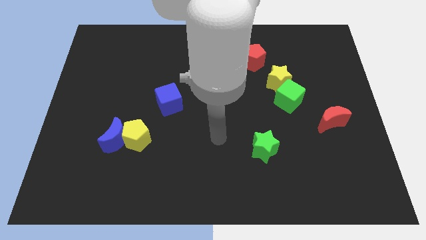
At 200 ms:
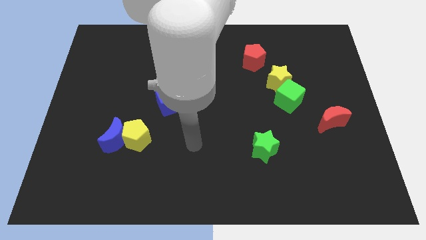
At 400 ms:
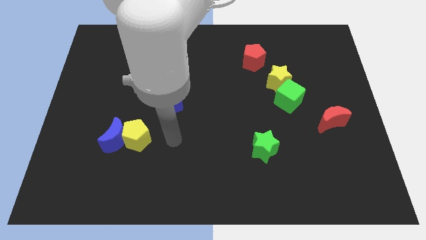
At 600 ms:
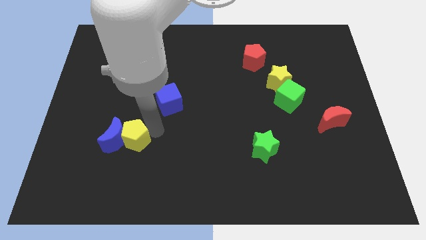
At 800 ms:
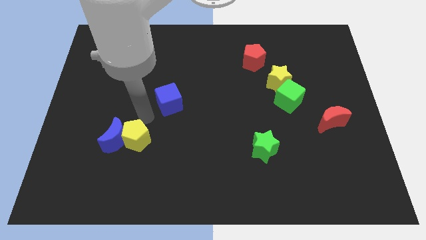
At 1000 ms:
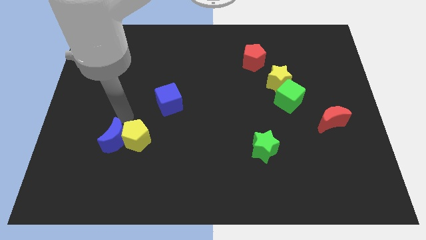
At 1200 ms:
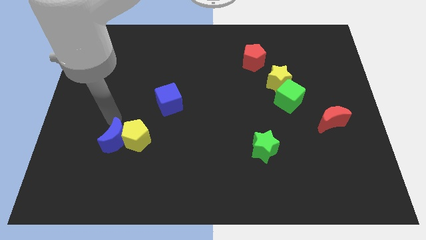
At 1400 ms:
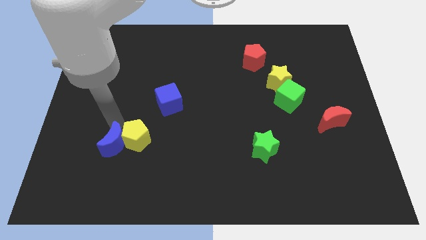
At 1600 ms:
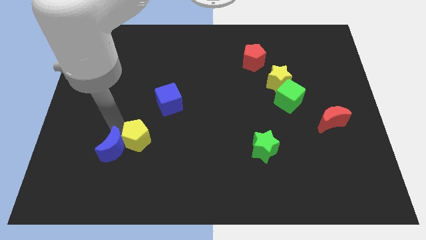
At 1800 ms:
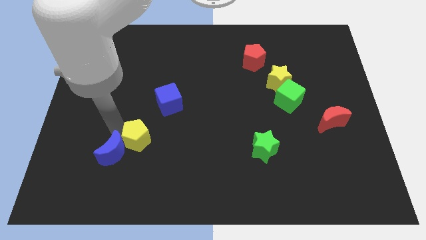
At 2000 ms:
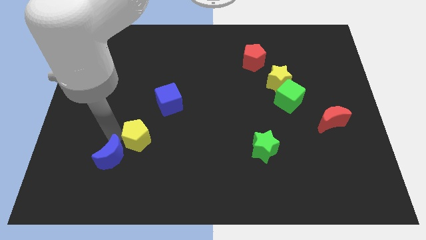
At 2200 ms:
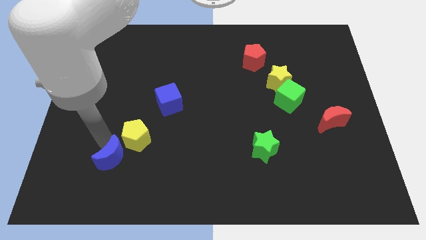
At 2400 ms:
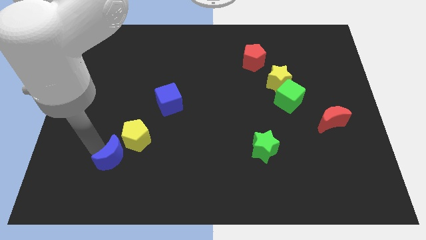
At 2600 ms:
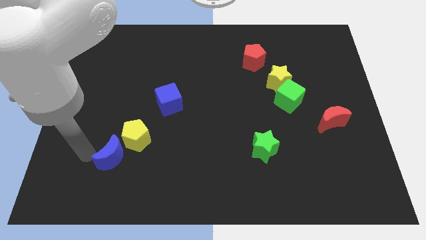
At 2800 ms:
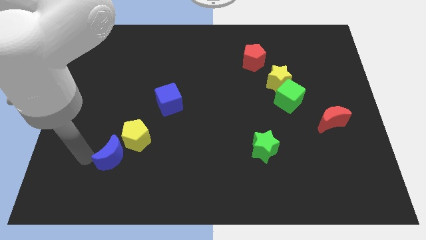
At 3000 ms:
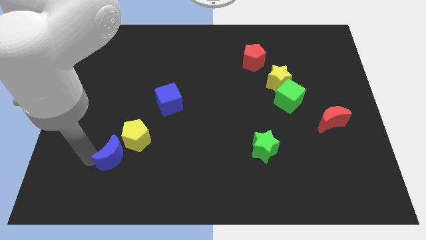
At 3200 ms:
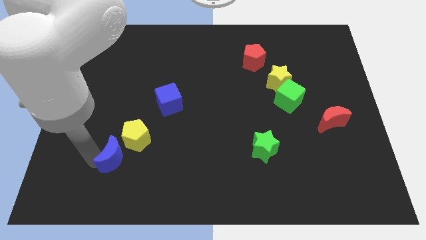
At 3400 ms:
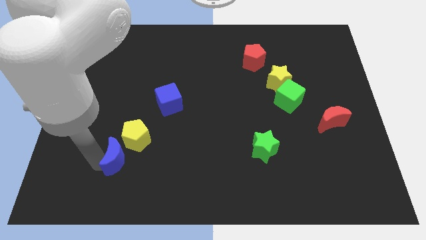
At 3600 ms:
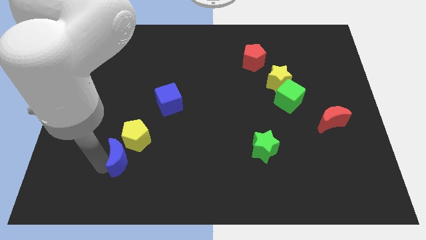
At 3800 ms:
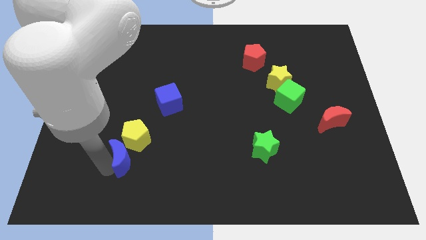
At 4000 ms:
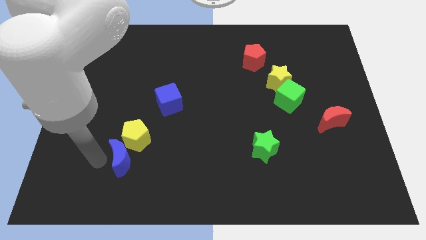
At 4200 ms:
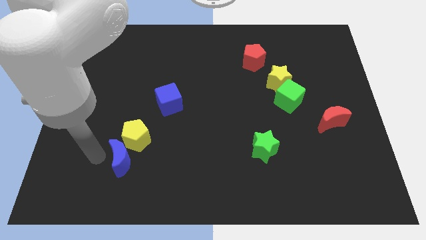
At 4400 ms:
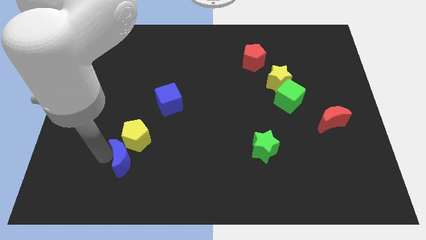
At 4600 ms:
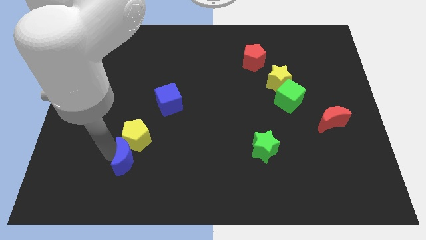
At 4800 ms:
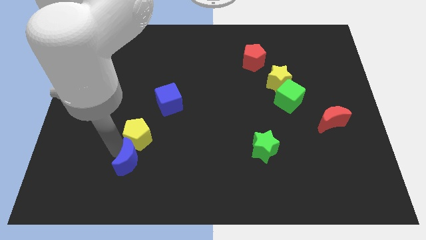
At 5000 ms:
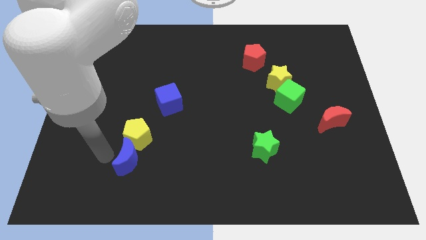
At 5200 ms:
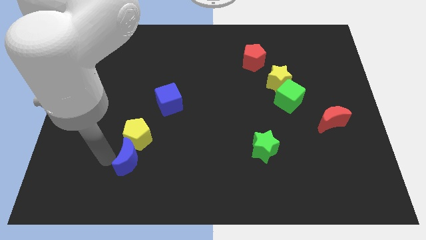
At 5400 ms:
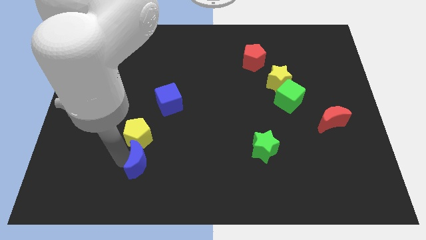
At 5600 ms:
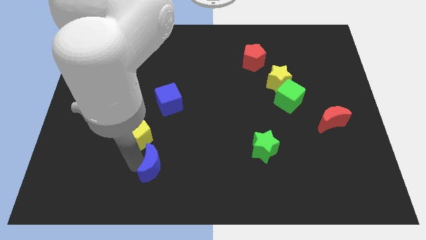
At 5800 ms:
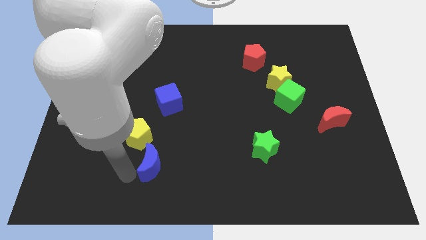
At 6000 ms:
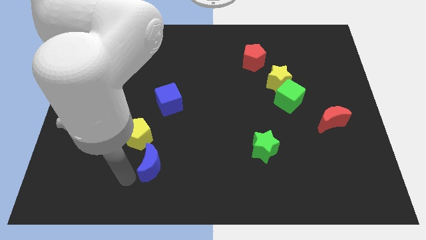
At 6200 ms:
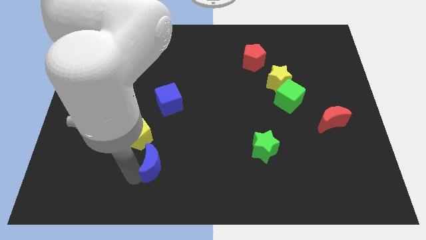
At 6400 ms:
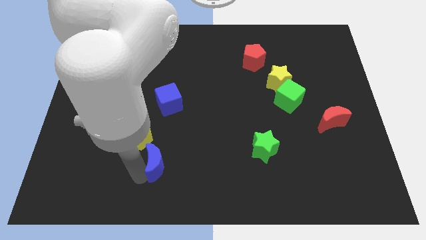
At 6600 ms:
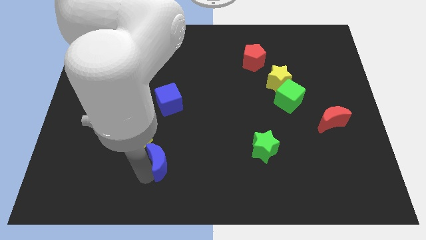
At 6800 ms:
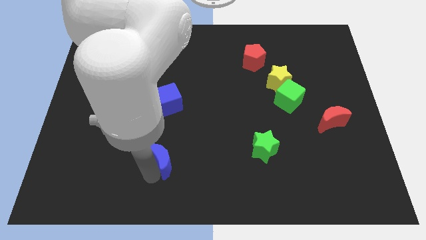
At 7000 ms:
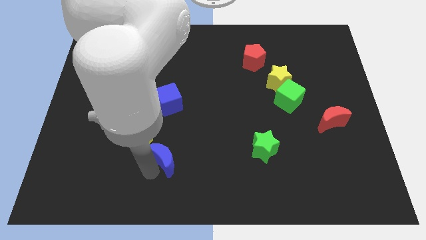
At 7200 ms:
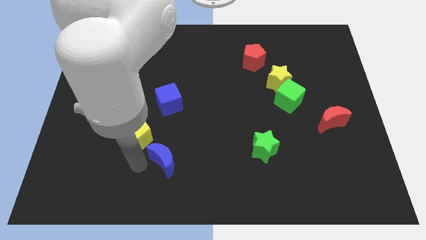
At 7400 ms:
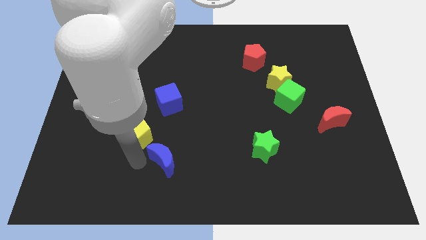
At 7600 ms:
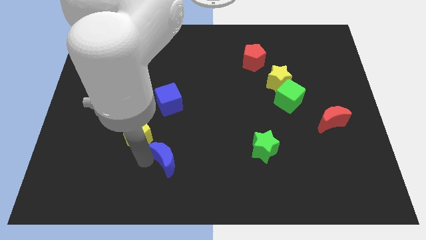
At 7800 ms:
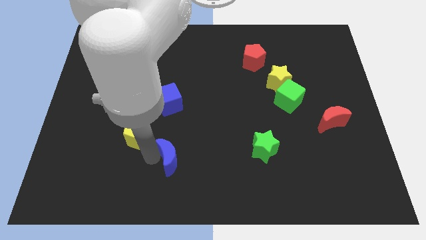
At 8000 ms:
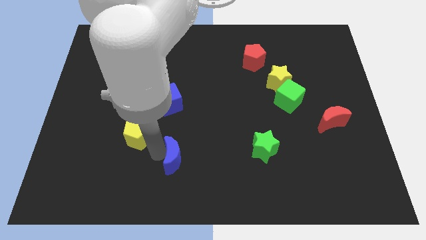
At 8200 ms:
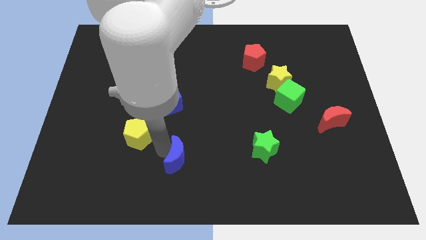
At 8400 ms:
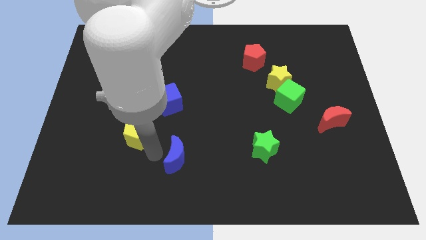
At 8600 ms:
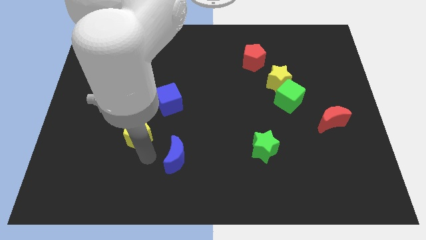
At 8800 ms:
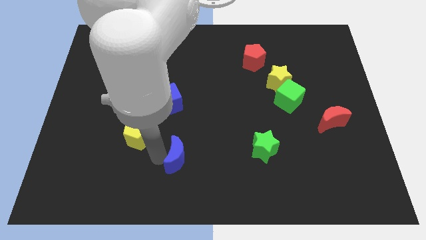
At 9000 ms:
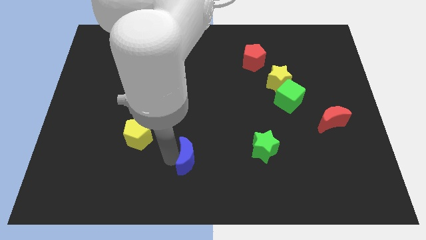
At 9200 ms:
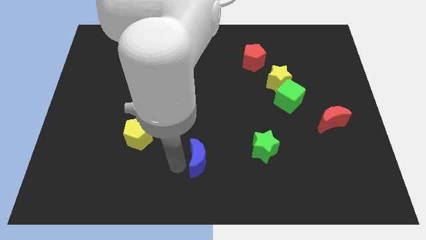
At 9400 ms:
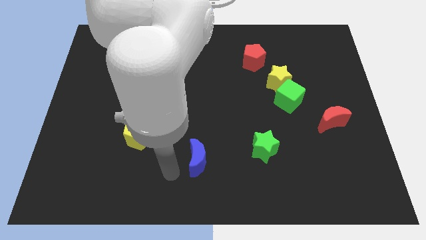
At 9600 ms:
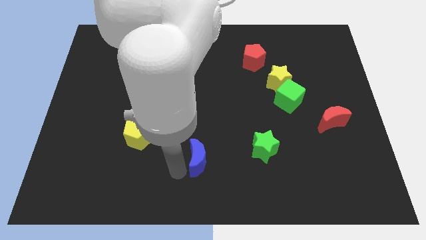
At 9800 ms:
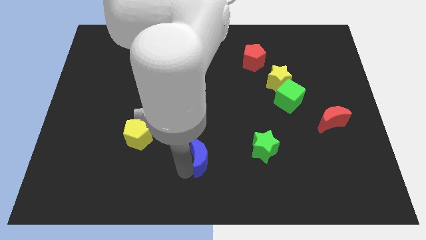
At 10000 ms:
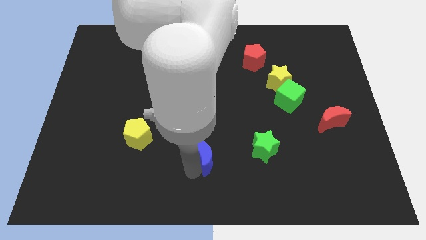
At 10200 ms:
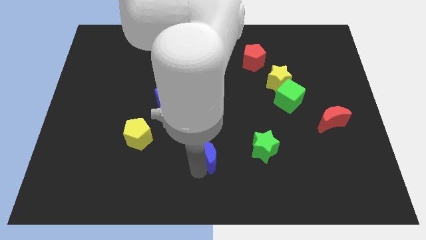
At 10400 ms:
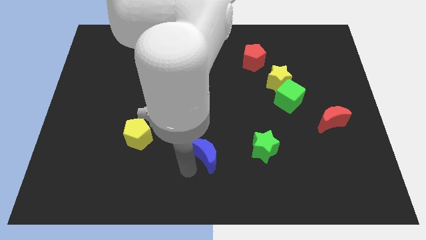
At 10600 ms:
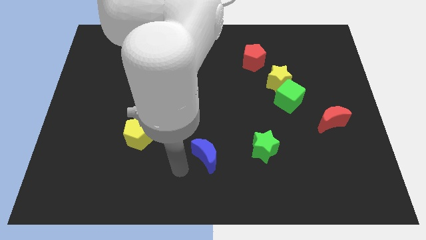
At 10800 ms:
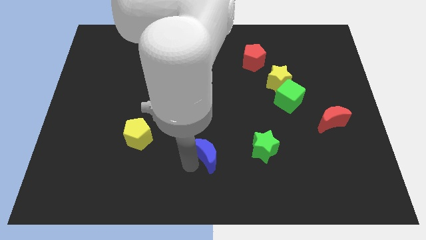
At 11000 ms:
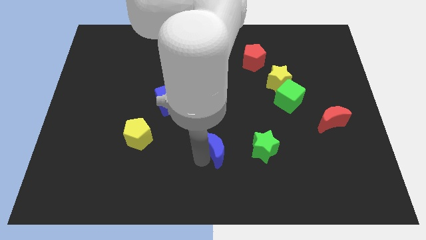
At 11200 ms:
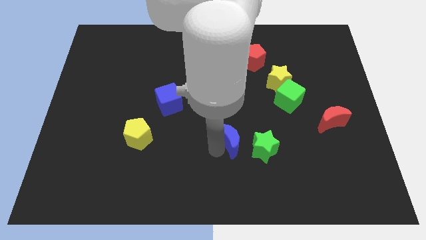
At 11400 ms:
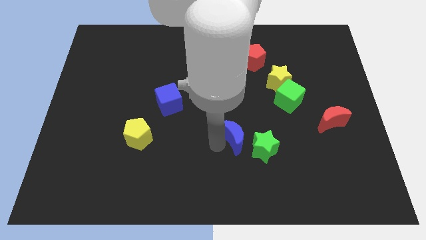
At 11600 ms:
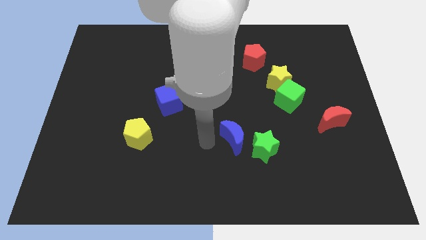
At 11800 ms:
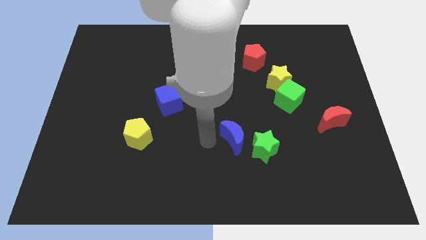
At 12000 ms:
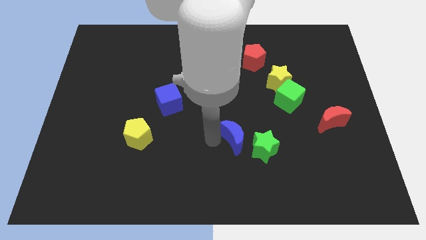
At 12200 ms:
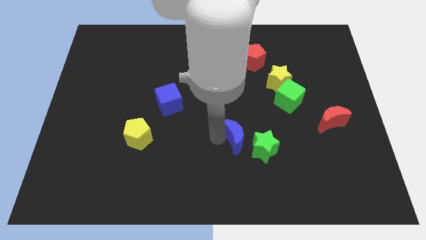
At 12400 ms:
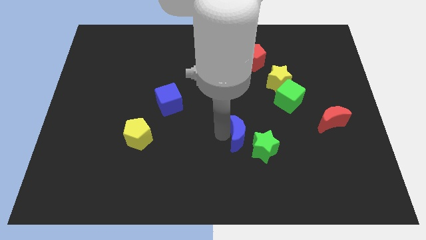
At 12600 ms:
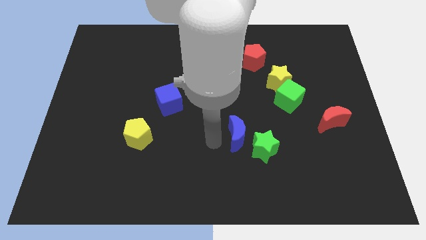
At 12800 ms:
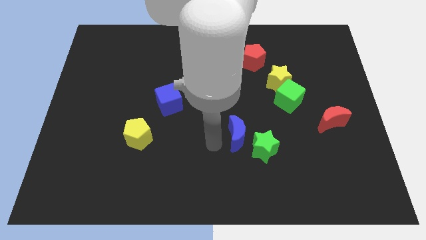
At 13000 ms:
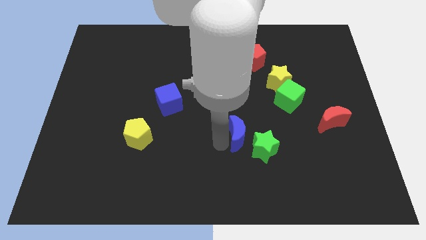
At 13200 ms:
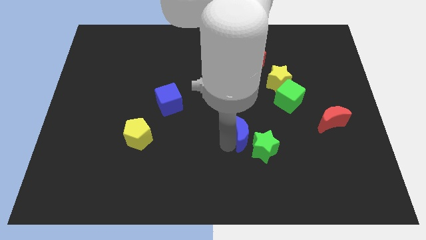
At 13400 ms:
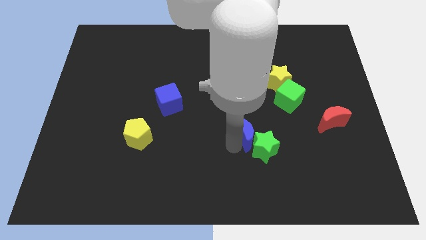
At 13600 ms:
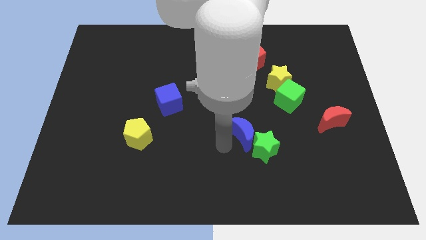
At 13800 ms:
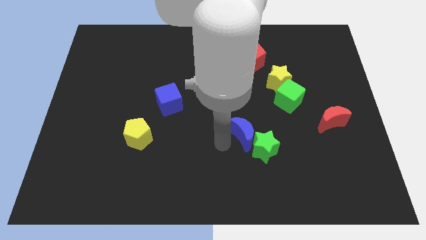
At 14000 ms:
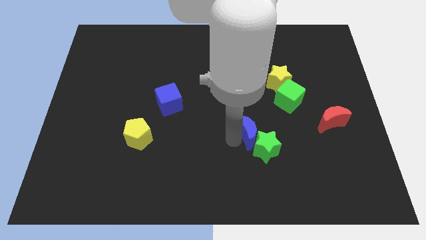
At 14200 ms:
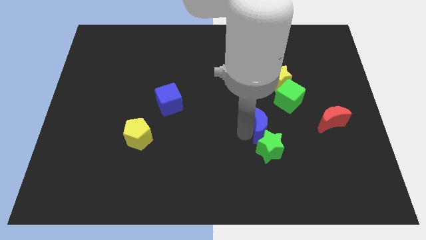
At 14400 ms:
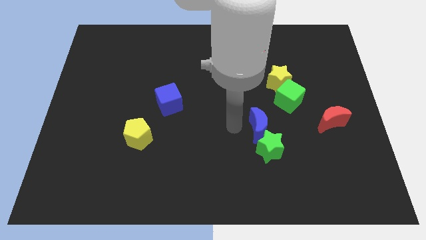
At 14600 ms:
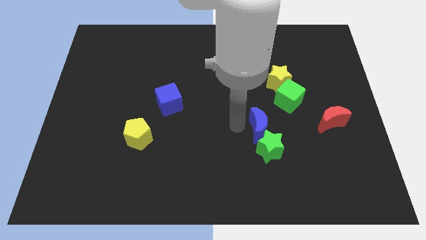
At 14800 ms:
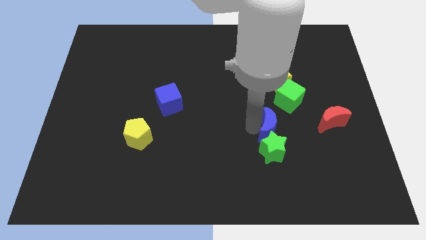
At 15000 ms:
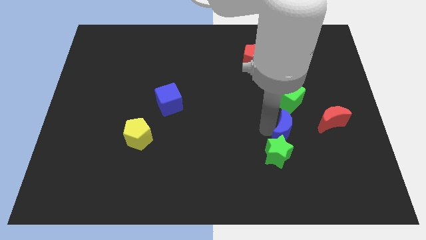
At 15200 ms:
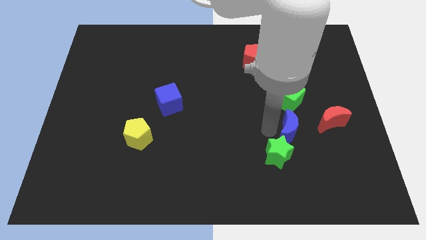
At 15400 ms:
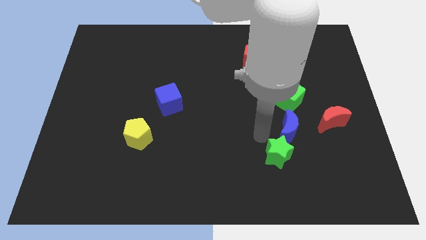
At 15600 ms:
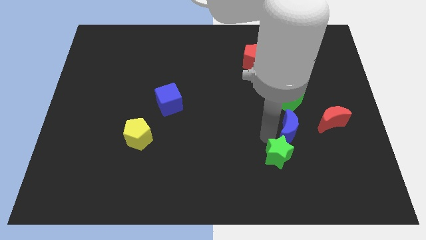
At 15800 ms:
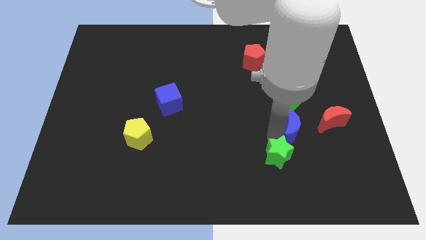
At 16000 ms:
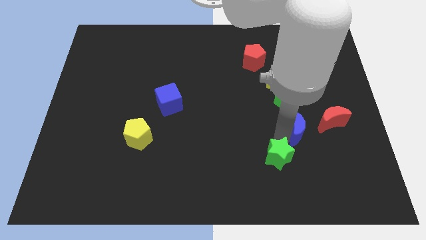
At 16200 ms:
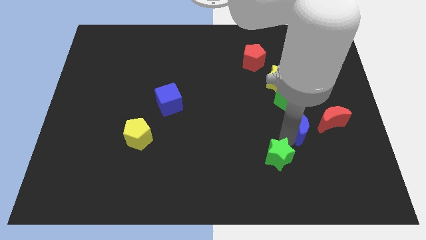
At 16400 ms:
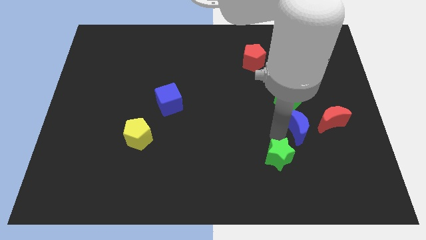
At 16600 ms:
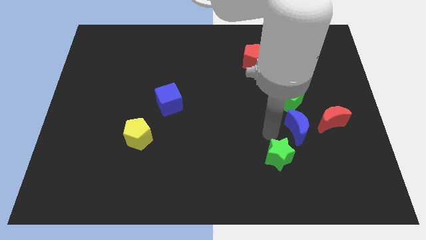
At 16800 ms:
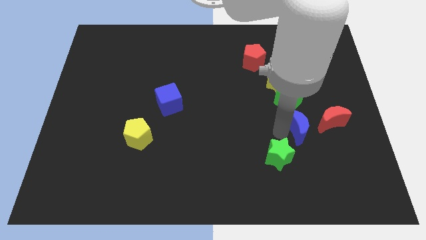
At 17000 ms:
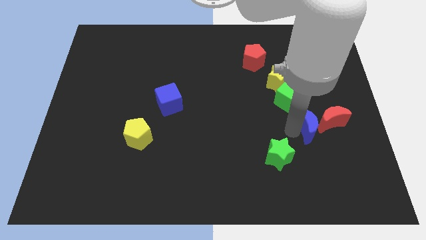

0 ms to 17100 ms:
push the blue moon to the red moon
